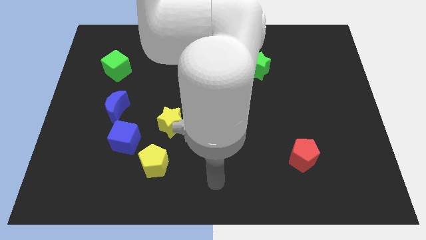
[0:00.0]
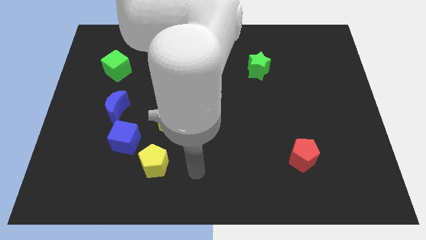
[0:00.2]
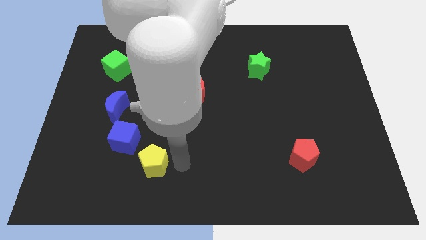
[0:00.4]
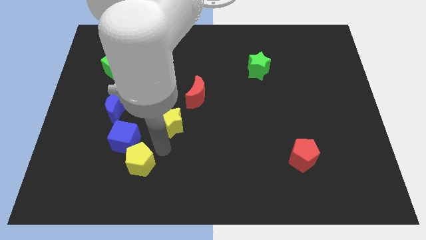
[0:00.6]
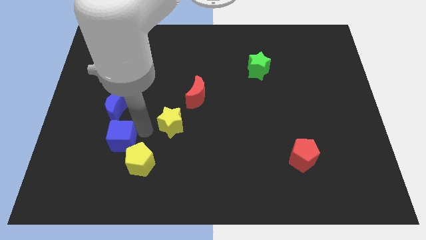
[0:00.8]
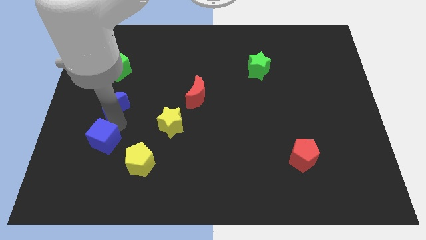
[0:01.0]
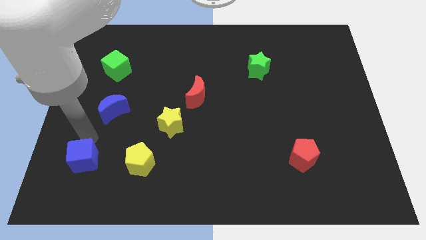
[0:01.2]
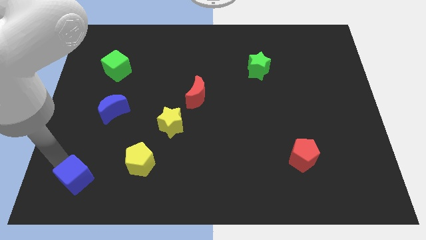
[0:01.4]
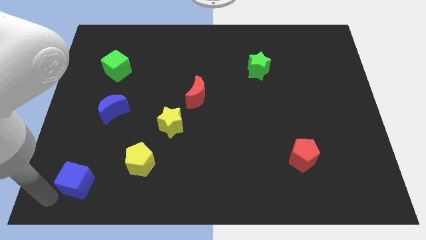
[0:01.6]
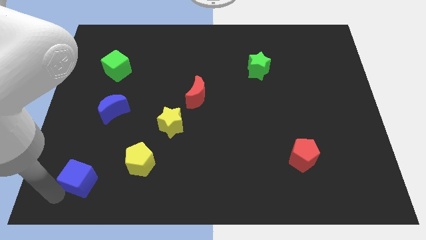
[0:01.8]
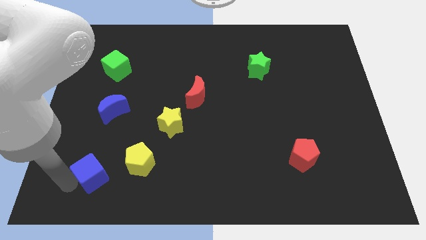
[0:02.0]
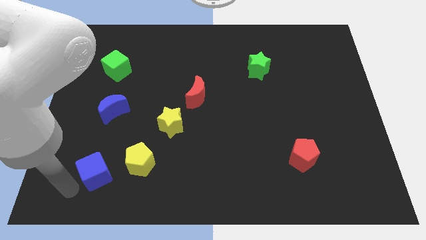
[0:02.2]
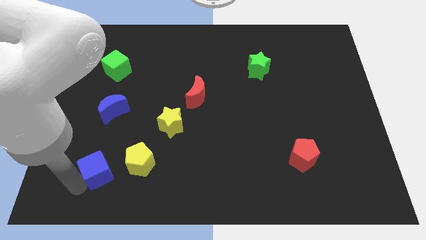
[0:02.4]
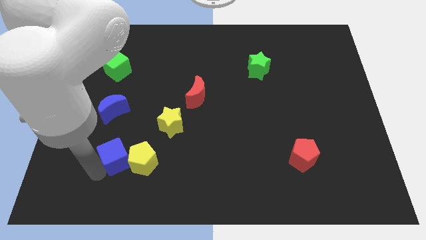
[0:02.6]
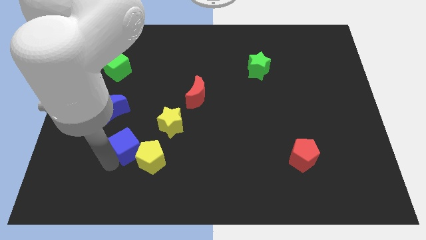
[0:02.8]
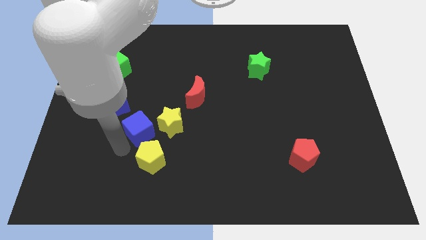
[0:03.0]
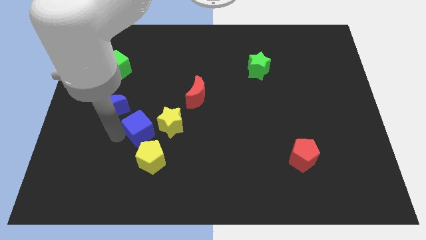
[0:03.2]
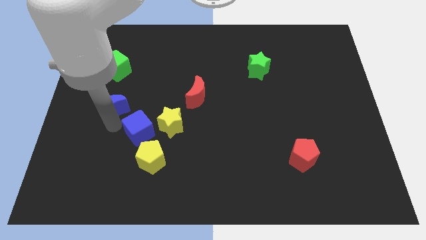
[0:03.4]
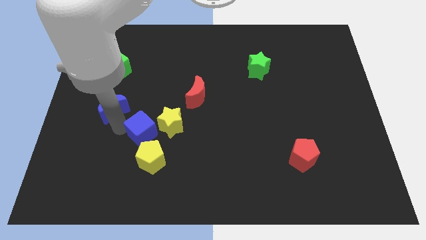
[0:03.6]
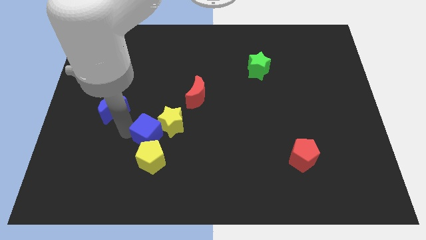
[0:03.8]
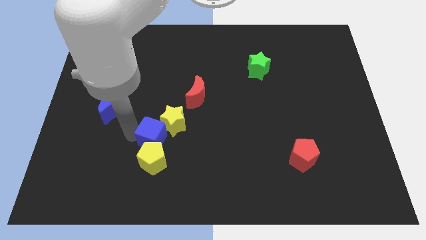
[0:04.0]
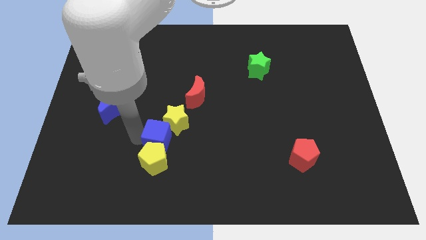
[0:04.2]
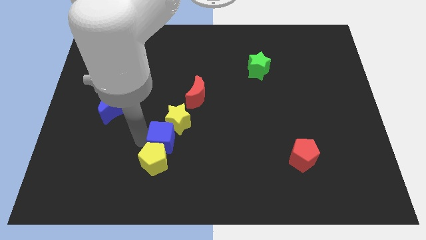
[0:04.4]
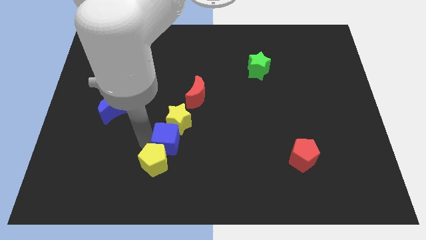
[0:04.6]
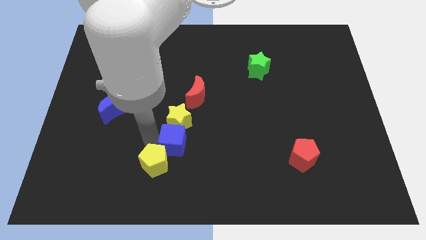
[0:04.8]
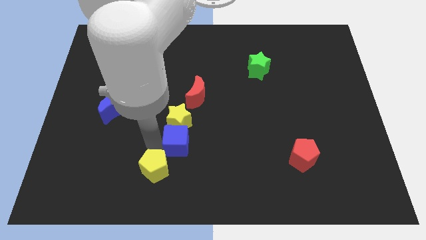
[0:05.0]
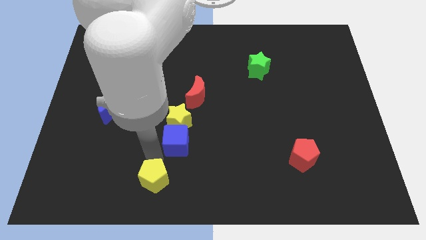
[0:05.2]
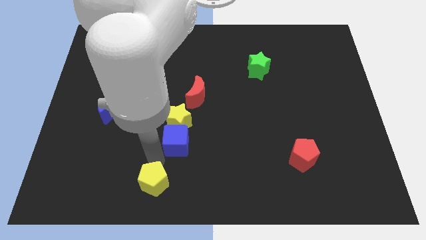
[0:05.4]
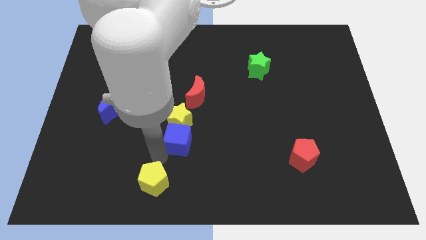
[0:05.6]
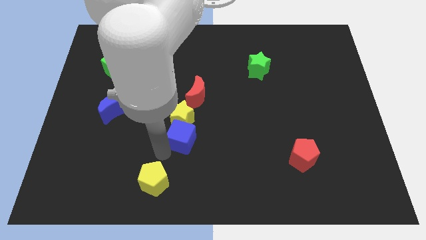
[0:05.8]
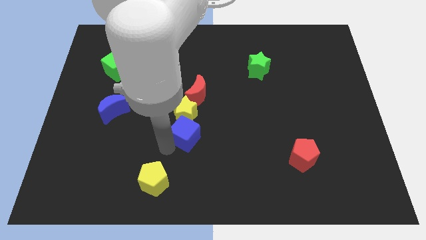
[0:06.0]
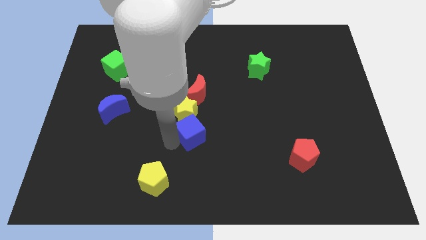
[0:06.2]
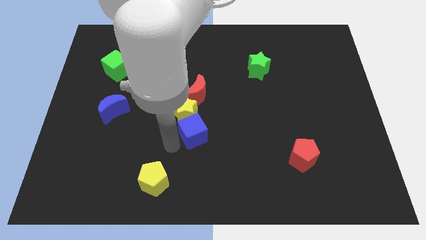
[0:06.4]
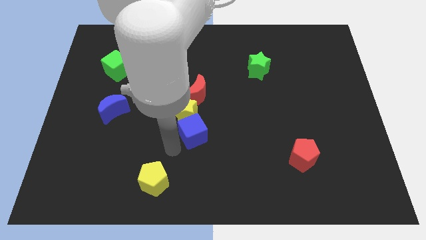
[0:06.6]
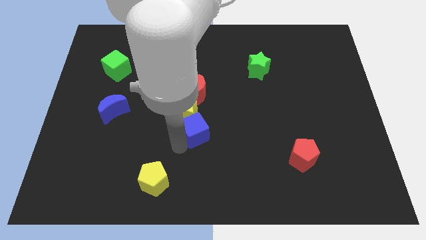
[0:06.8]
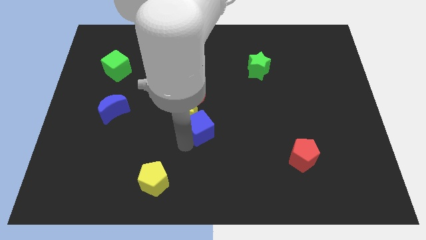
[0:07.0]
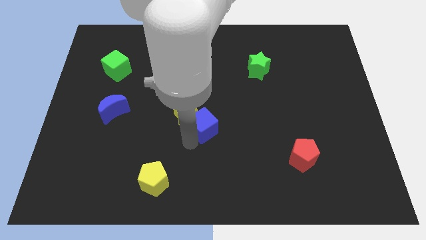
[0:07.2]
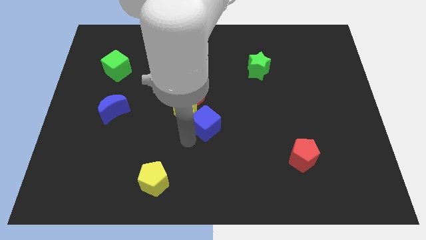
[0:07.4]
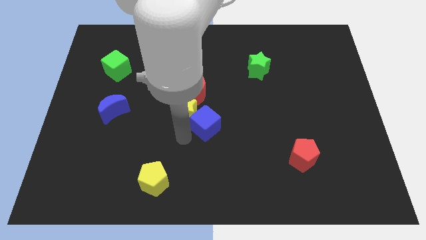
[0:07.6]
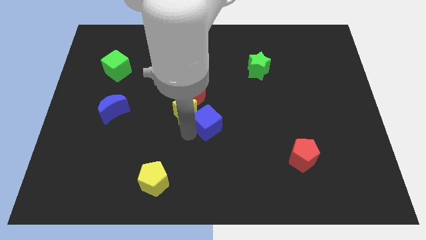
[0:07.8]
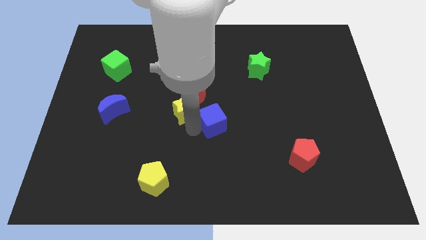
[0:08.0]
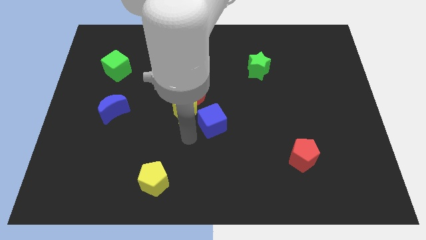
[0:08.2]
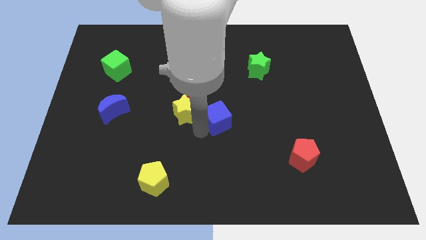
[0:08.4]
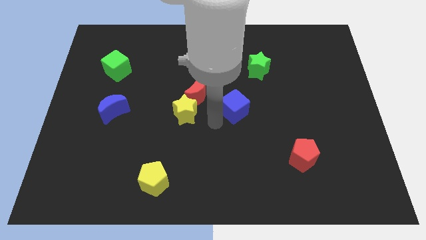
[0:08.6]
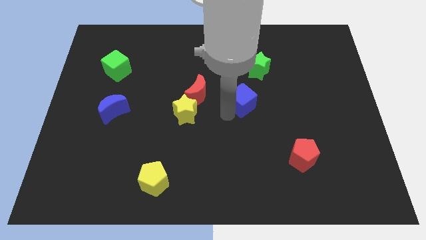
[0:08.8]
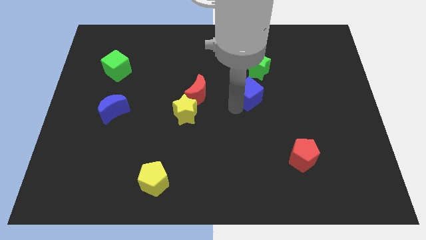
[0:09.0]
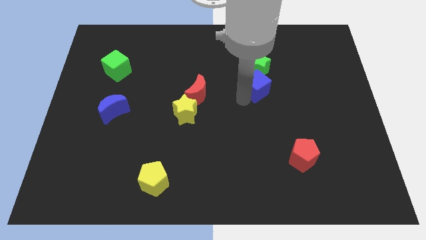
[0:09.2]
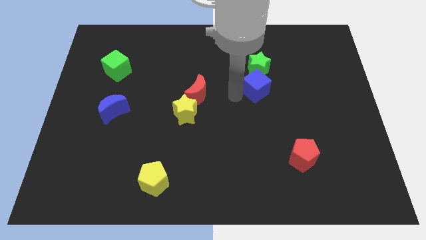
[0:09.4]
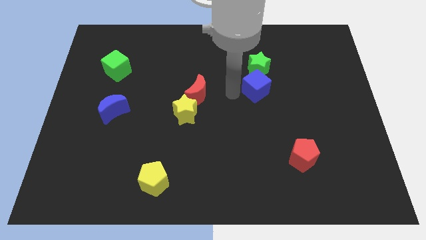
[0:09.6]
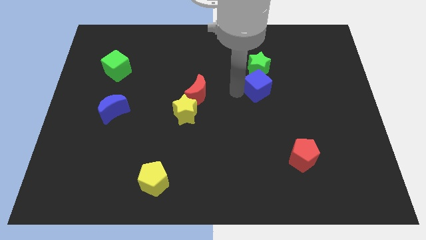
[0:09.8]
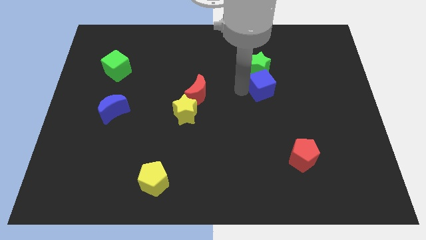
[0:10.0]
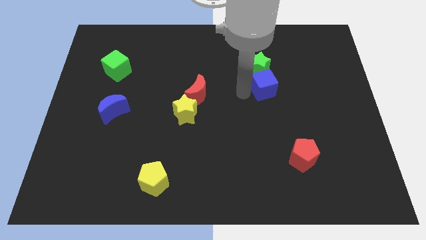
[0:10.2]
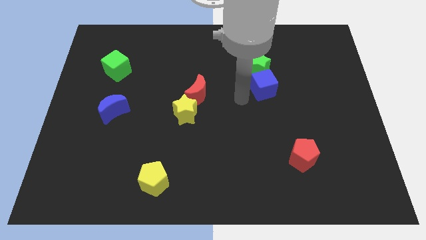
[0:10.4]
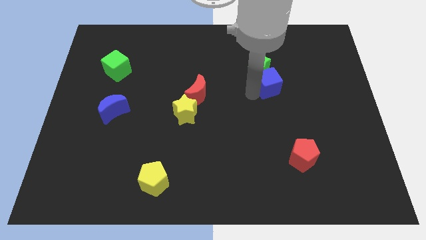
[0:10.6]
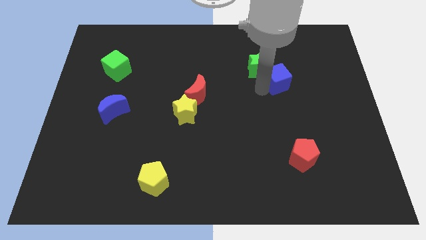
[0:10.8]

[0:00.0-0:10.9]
put the blue cube to the right of the green star

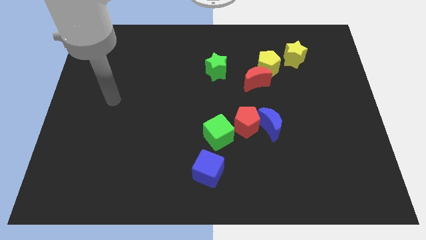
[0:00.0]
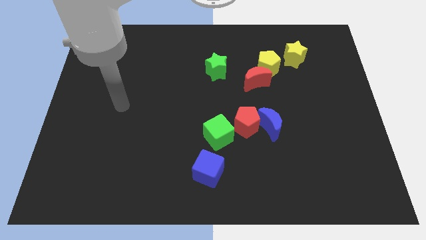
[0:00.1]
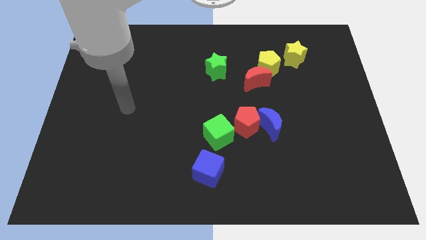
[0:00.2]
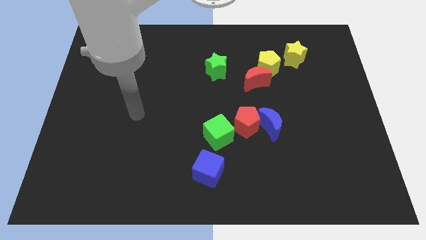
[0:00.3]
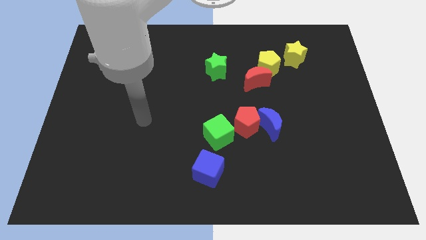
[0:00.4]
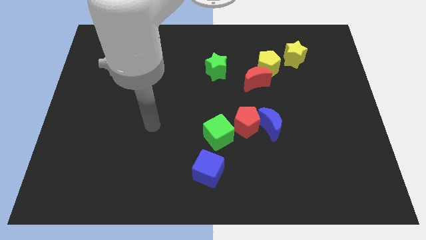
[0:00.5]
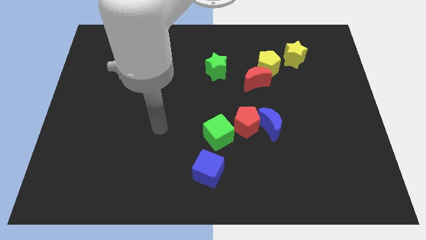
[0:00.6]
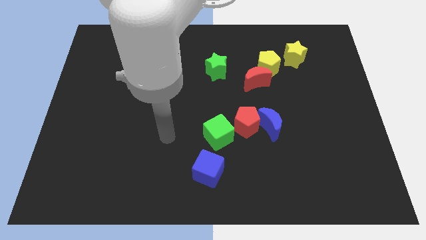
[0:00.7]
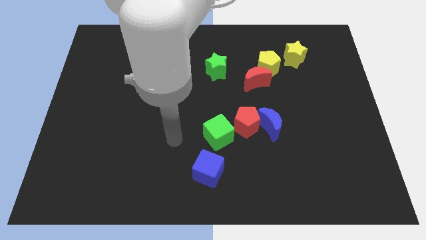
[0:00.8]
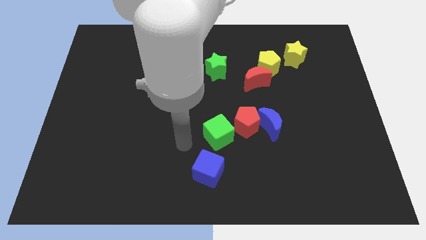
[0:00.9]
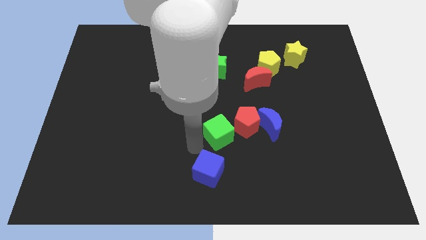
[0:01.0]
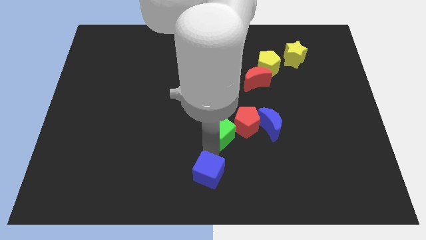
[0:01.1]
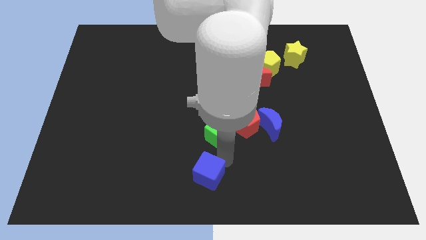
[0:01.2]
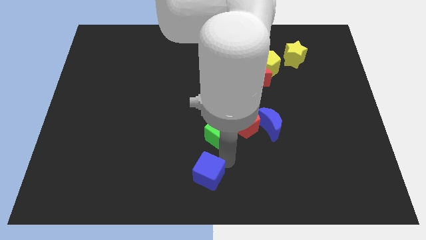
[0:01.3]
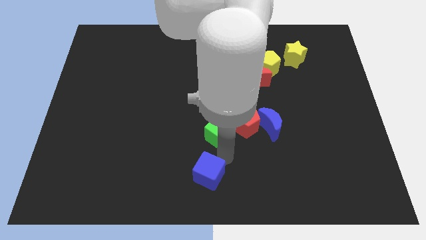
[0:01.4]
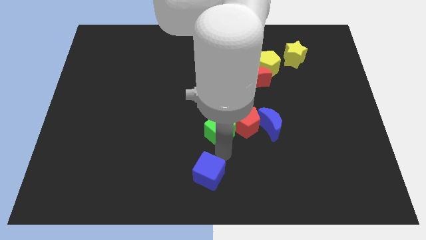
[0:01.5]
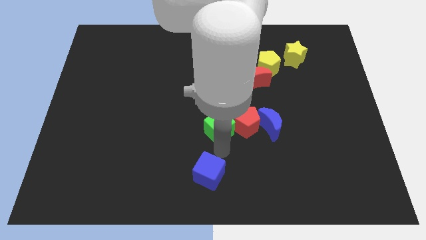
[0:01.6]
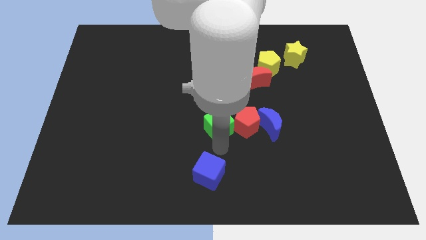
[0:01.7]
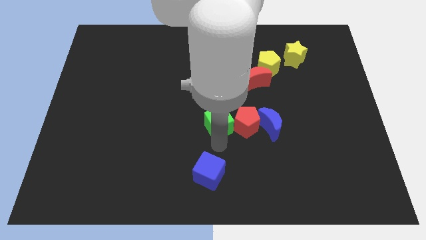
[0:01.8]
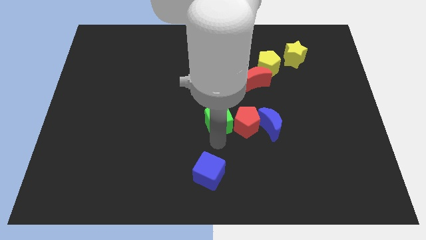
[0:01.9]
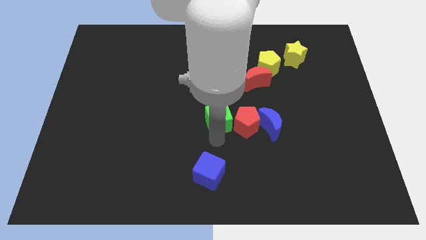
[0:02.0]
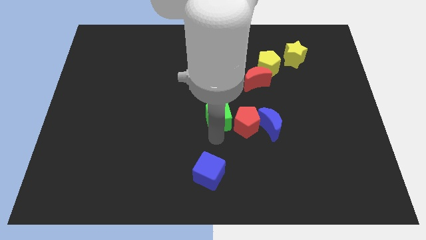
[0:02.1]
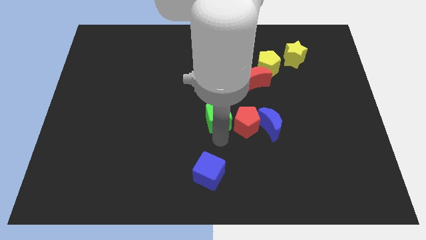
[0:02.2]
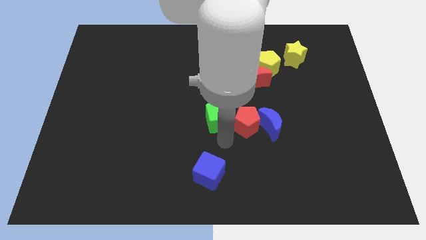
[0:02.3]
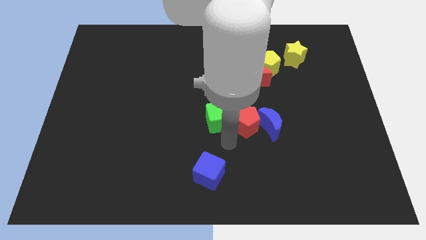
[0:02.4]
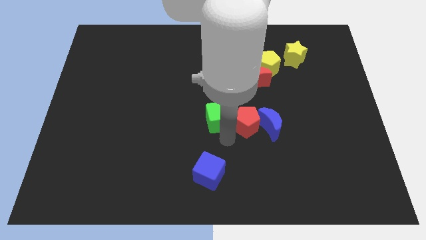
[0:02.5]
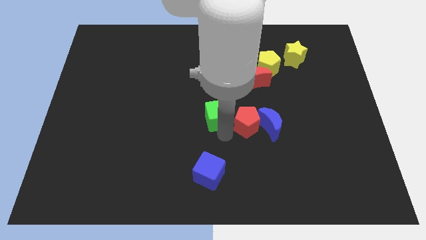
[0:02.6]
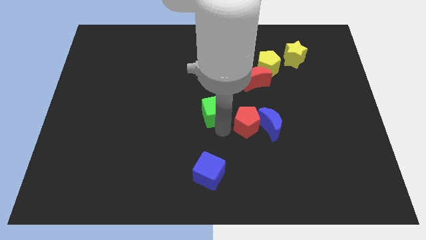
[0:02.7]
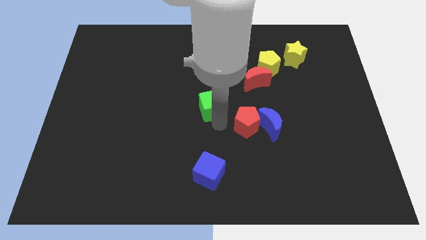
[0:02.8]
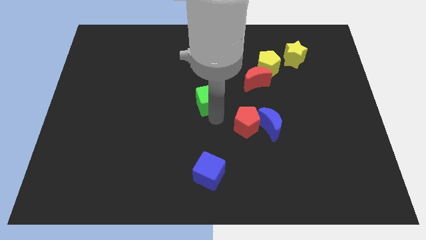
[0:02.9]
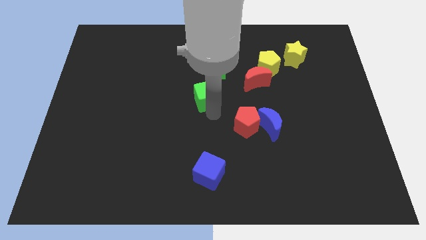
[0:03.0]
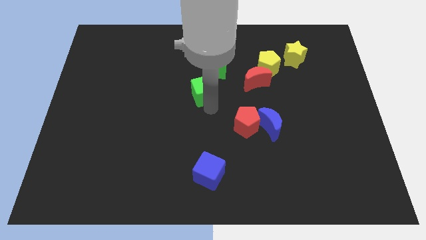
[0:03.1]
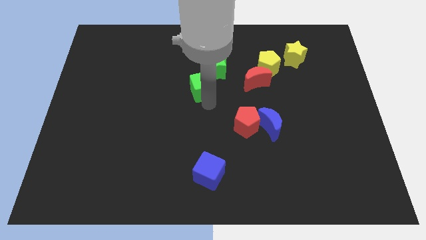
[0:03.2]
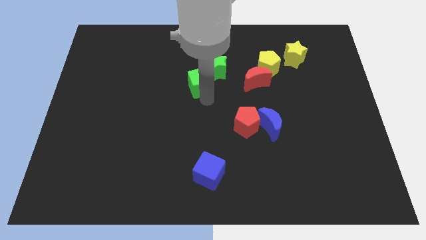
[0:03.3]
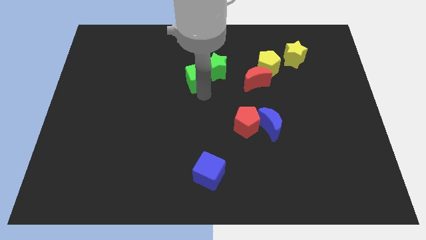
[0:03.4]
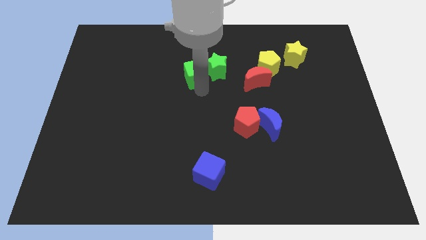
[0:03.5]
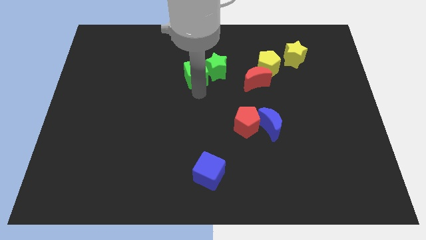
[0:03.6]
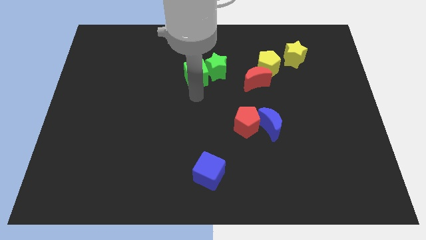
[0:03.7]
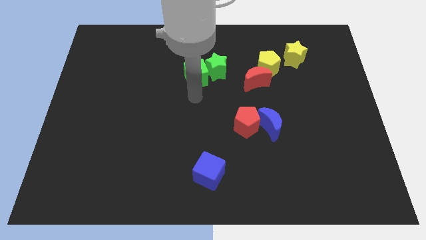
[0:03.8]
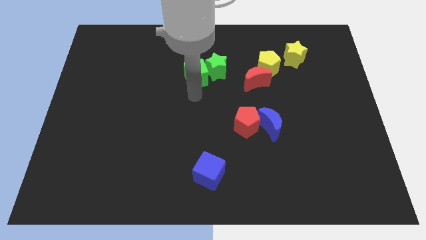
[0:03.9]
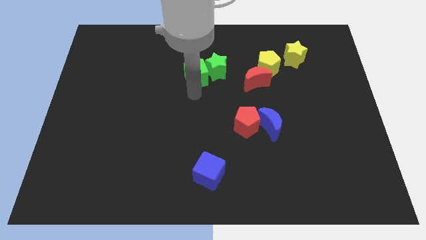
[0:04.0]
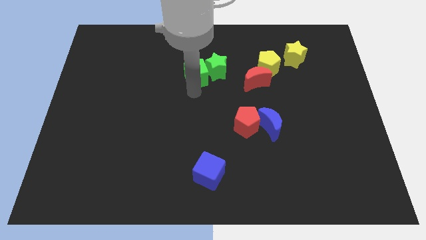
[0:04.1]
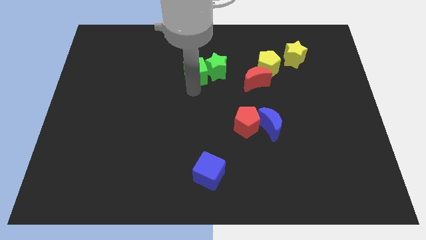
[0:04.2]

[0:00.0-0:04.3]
push the green cube diagonally up and to the left of the green star
